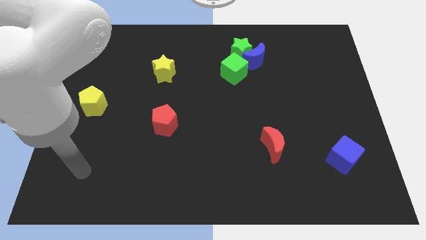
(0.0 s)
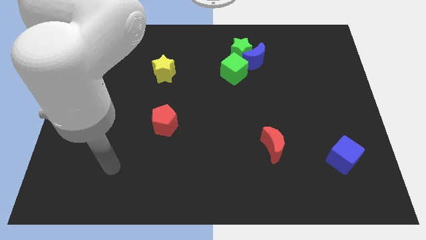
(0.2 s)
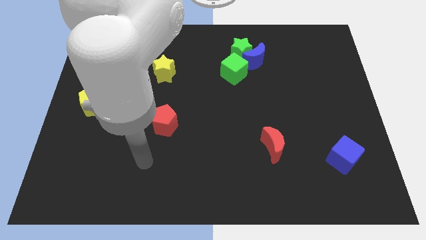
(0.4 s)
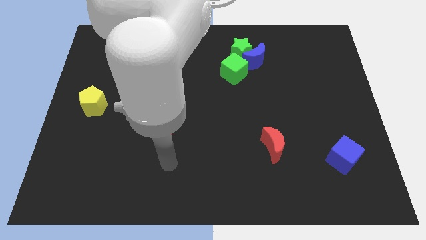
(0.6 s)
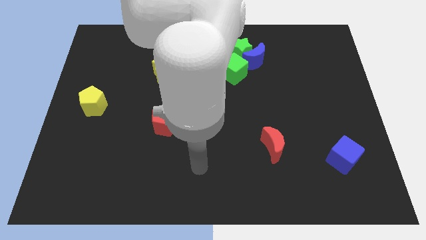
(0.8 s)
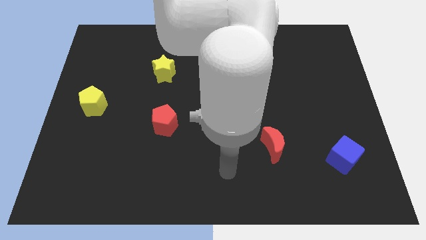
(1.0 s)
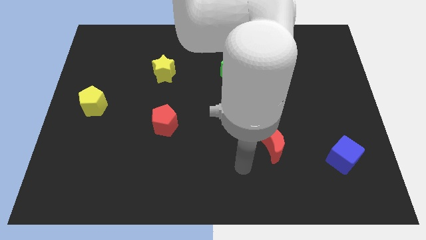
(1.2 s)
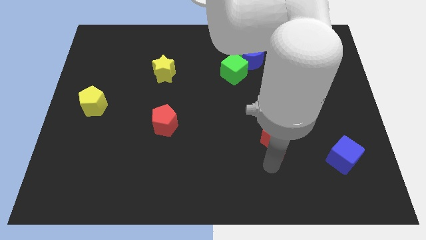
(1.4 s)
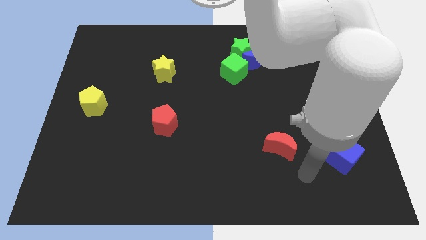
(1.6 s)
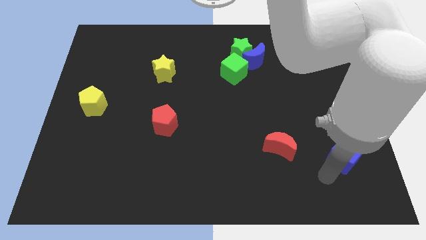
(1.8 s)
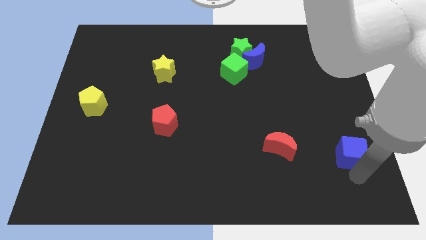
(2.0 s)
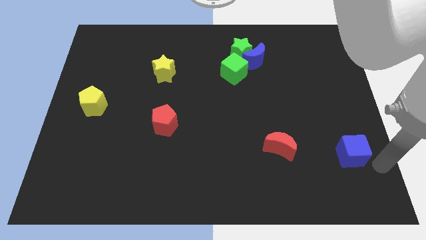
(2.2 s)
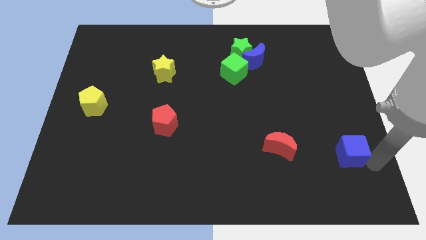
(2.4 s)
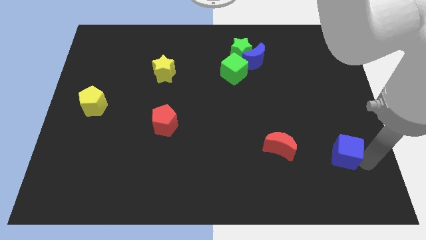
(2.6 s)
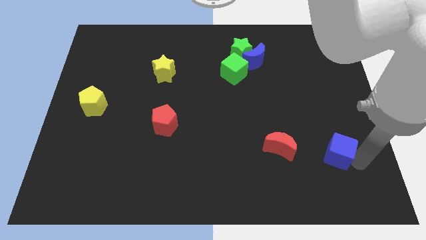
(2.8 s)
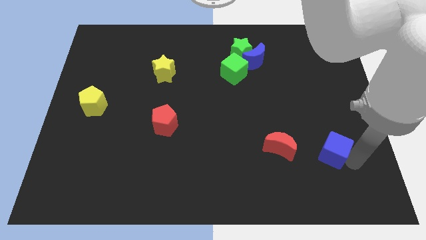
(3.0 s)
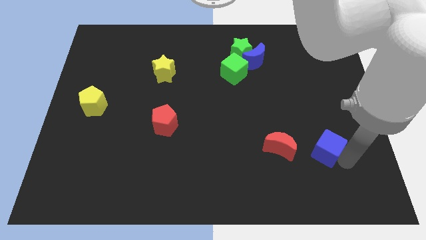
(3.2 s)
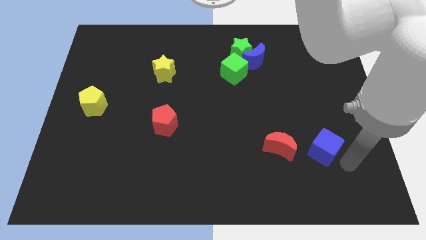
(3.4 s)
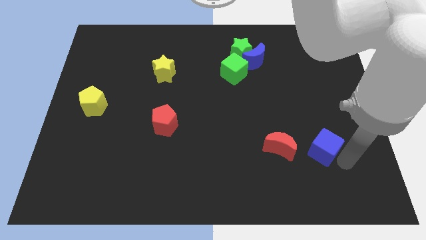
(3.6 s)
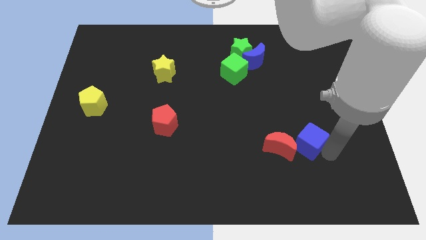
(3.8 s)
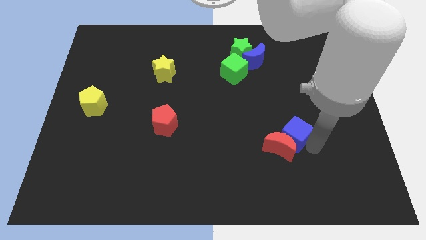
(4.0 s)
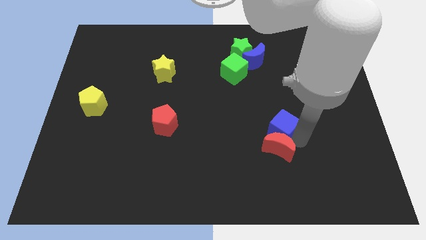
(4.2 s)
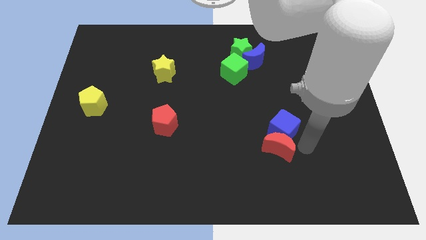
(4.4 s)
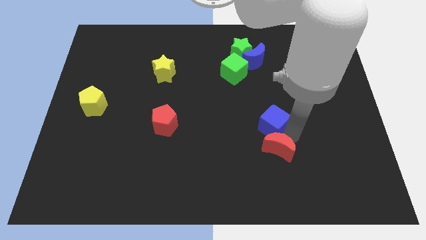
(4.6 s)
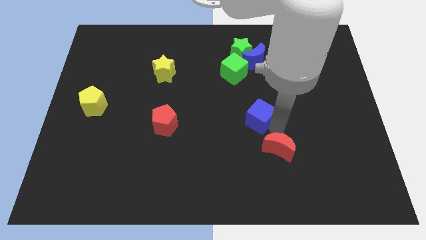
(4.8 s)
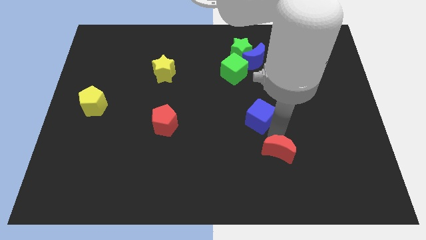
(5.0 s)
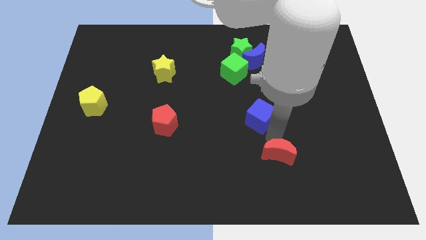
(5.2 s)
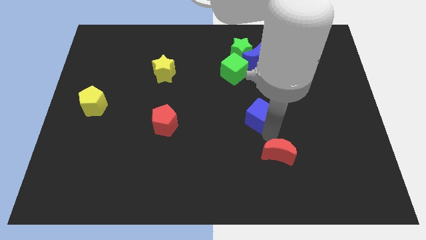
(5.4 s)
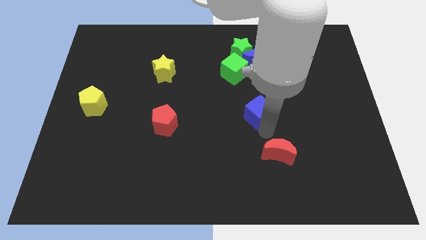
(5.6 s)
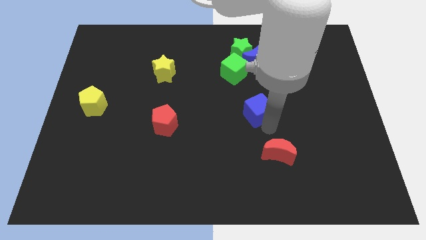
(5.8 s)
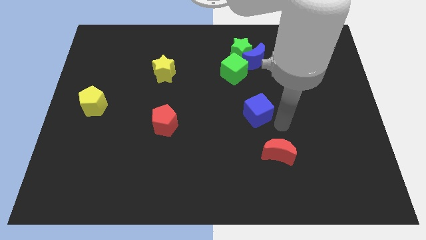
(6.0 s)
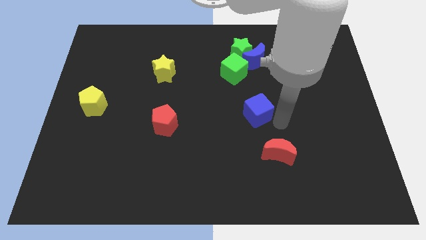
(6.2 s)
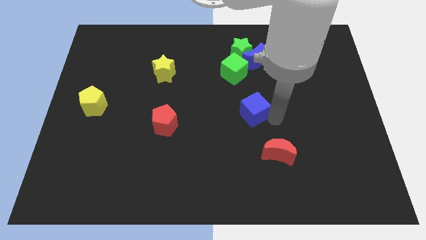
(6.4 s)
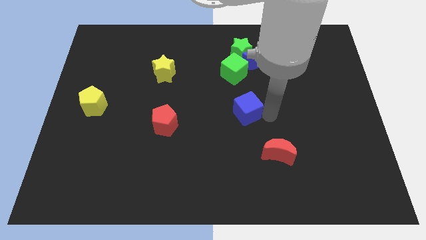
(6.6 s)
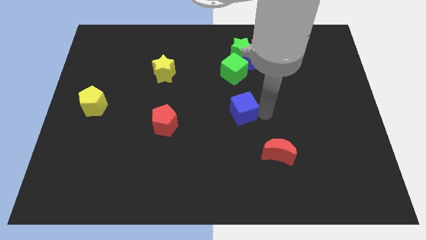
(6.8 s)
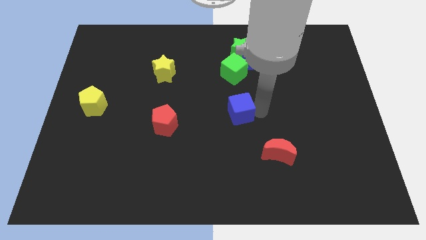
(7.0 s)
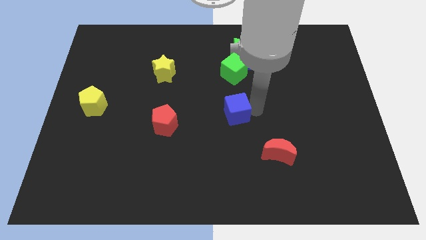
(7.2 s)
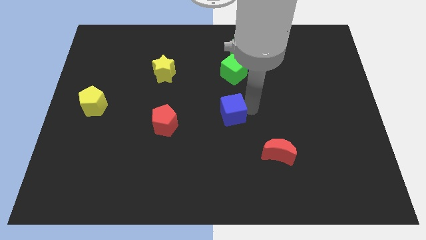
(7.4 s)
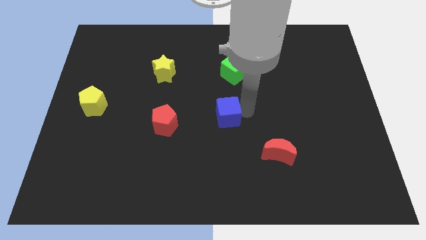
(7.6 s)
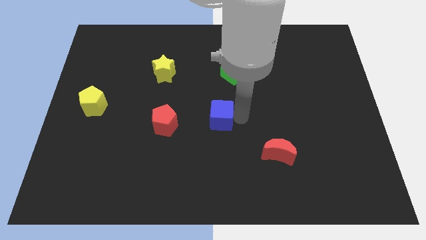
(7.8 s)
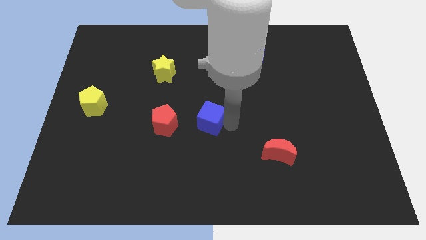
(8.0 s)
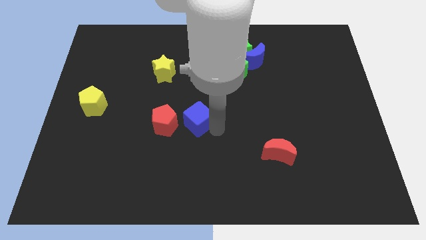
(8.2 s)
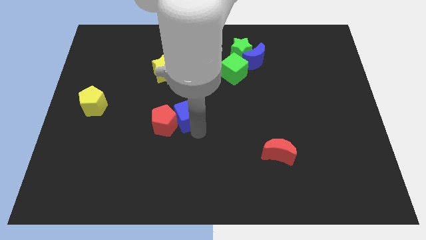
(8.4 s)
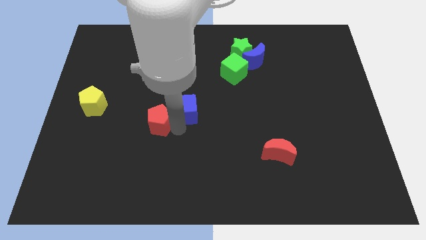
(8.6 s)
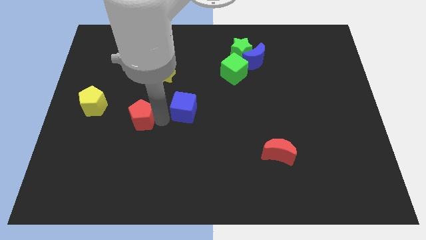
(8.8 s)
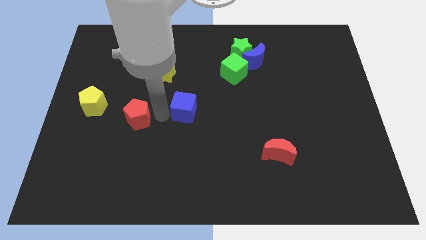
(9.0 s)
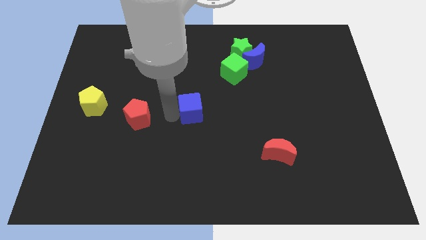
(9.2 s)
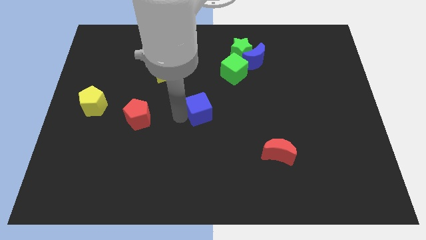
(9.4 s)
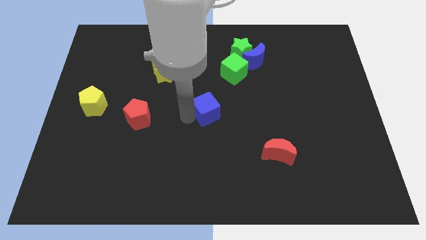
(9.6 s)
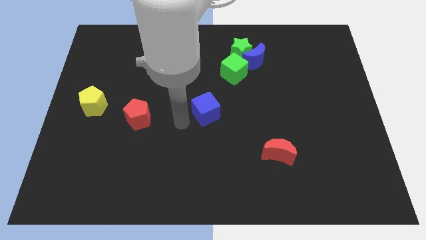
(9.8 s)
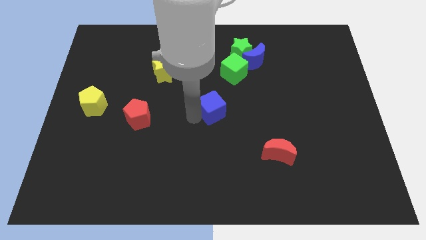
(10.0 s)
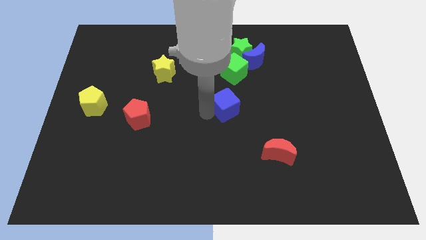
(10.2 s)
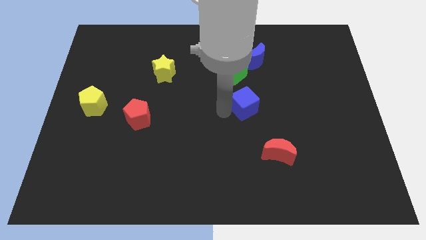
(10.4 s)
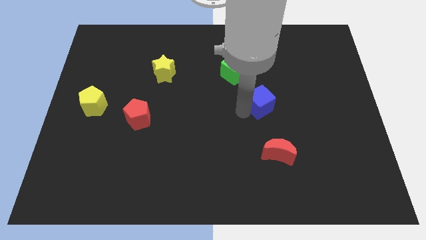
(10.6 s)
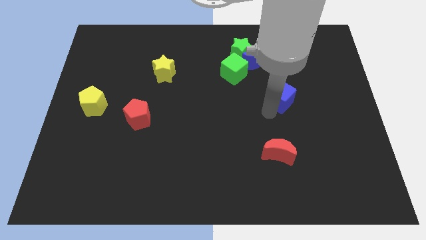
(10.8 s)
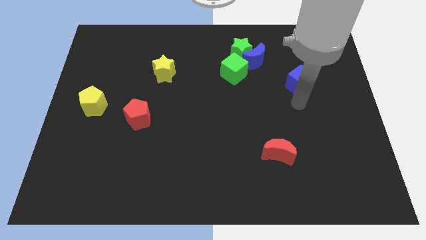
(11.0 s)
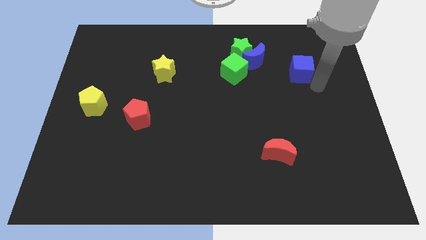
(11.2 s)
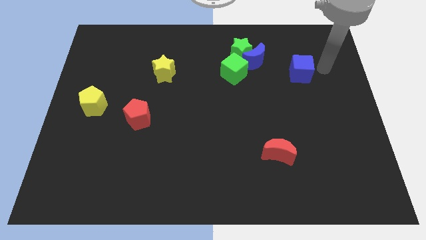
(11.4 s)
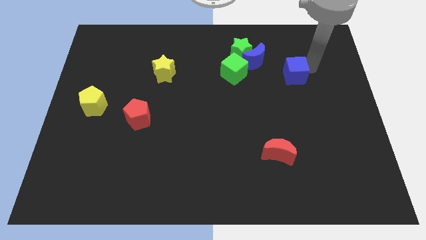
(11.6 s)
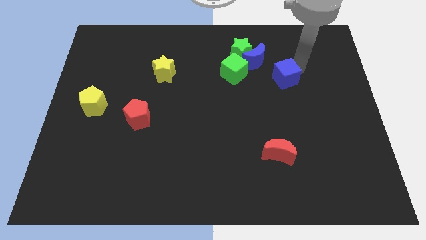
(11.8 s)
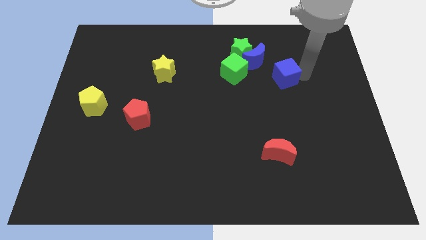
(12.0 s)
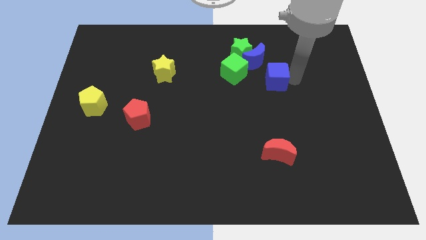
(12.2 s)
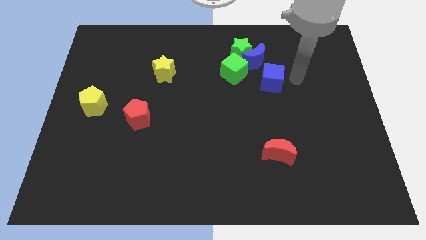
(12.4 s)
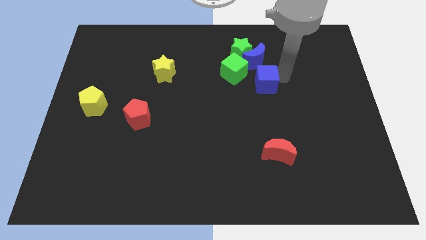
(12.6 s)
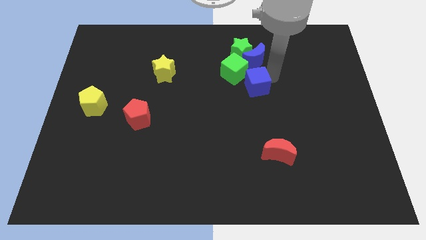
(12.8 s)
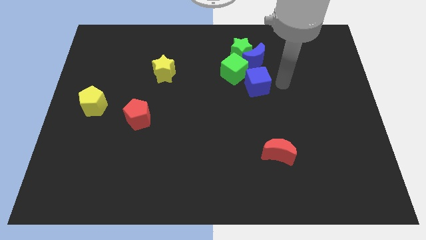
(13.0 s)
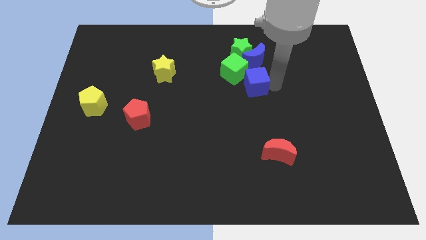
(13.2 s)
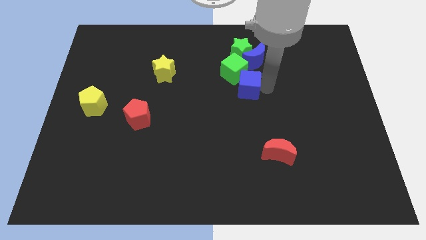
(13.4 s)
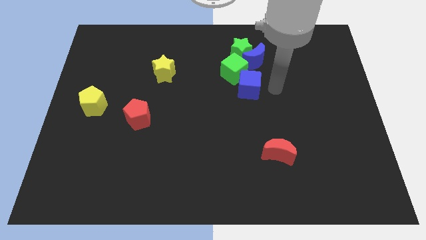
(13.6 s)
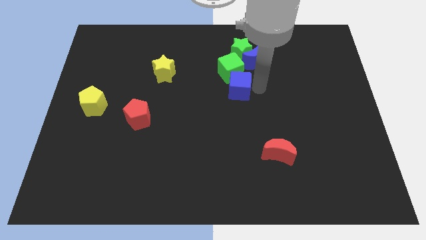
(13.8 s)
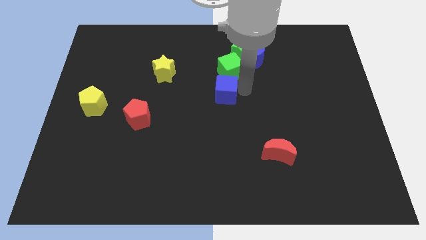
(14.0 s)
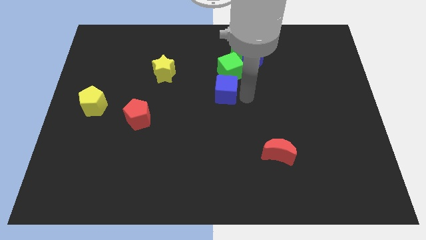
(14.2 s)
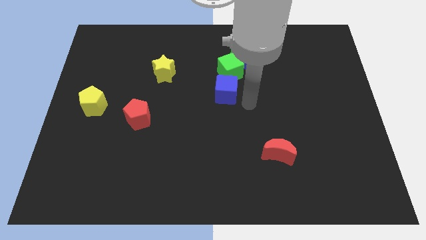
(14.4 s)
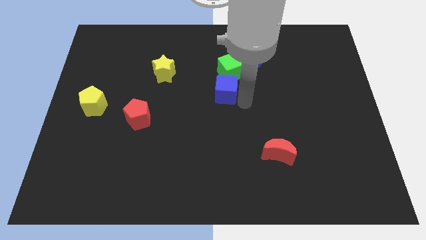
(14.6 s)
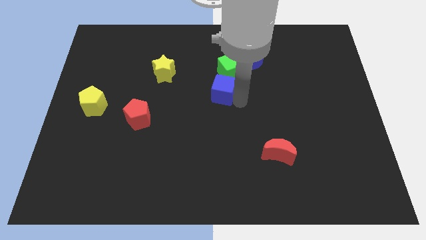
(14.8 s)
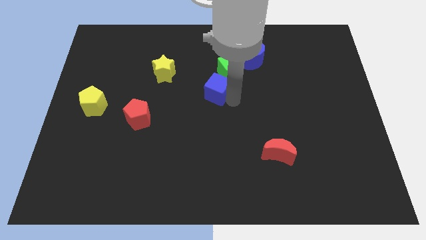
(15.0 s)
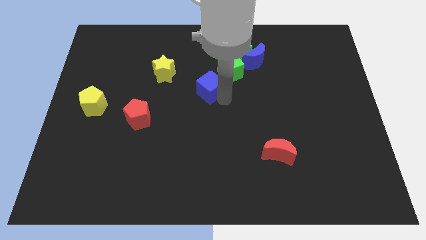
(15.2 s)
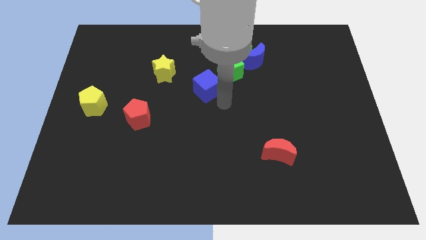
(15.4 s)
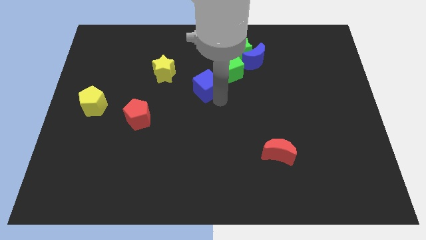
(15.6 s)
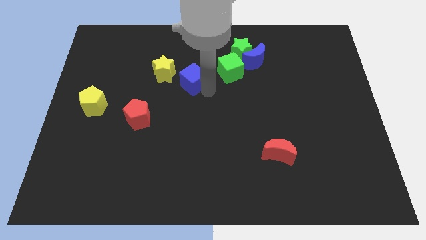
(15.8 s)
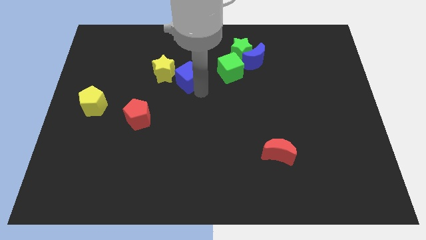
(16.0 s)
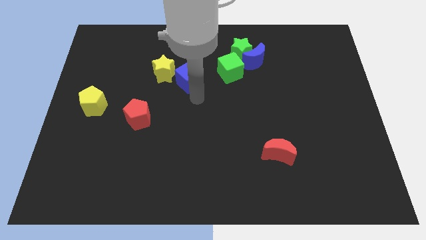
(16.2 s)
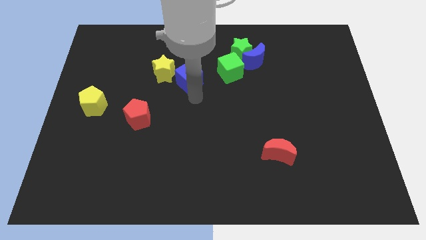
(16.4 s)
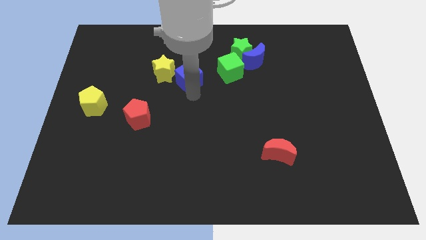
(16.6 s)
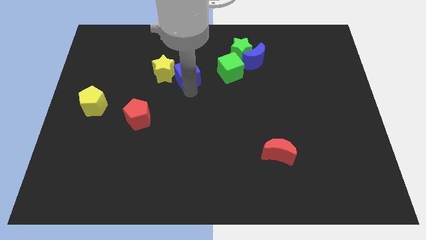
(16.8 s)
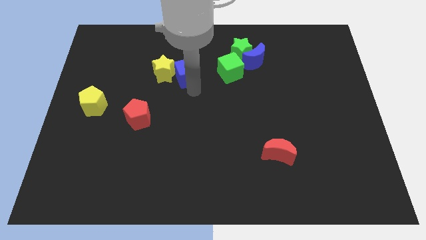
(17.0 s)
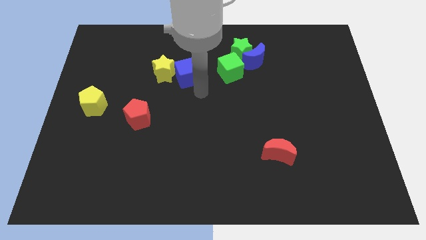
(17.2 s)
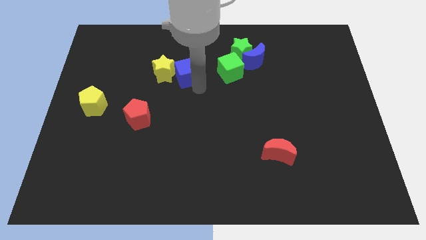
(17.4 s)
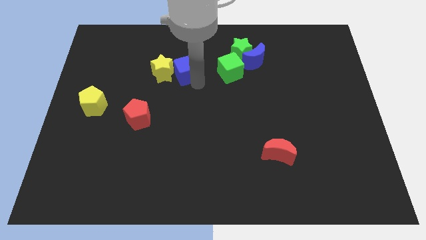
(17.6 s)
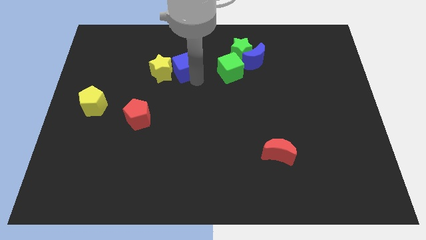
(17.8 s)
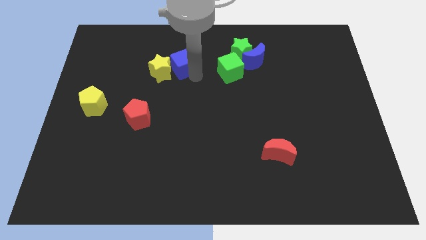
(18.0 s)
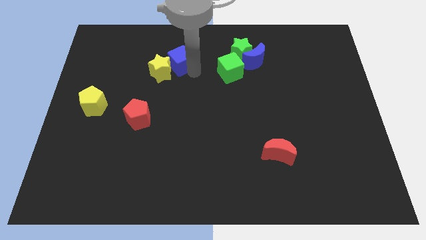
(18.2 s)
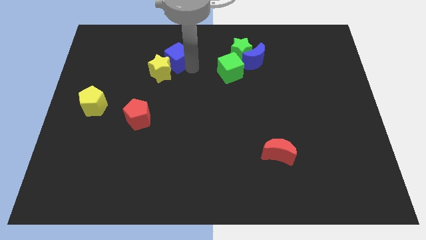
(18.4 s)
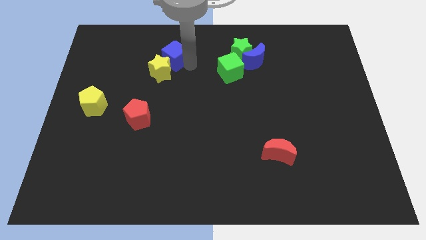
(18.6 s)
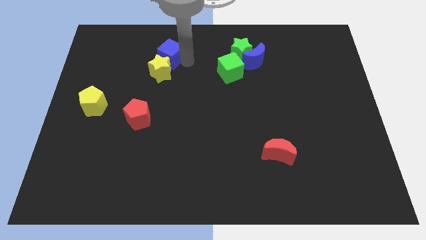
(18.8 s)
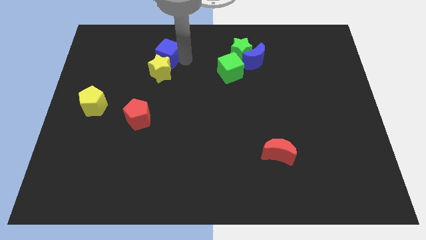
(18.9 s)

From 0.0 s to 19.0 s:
put the blue cube diagonally up and to the left of the yellow star
